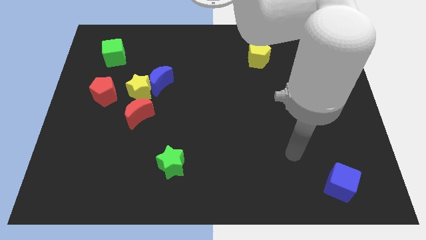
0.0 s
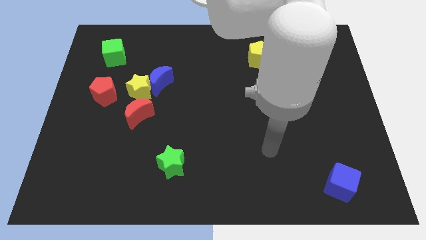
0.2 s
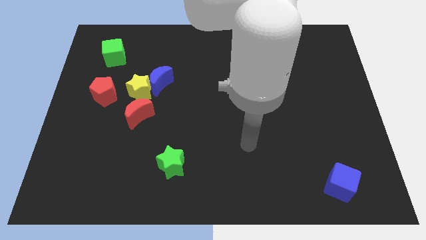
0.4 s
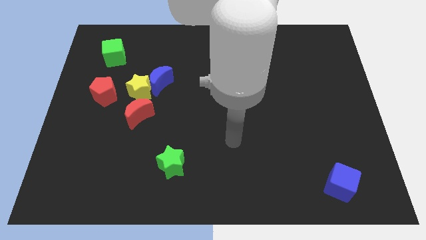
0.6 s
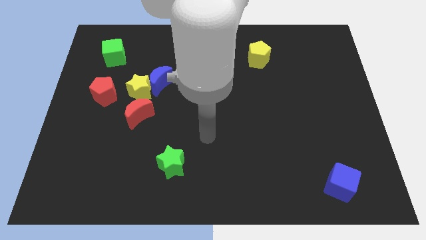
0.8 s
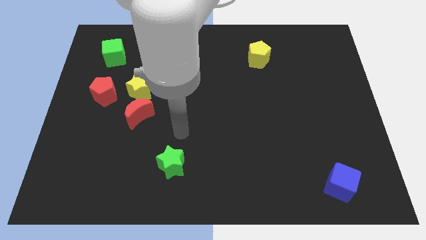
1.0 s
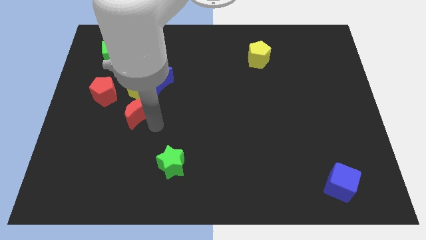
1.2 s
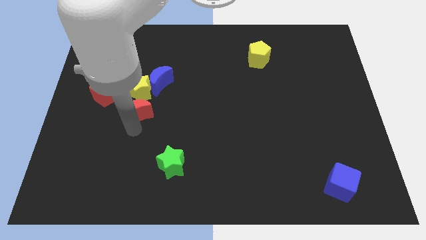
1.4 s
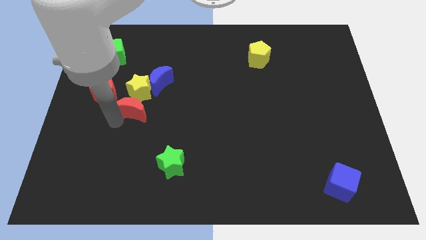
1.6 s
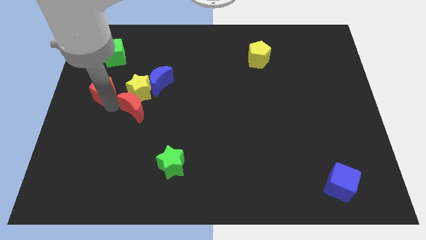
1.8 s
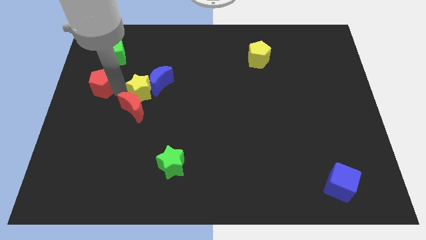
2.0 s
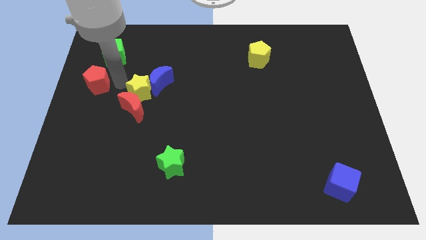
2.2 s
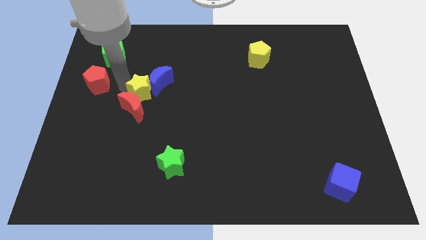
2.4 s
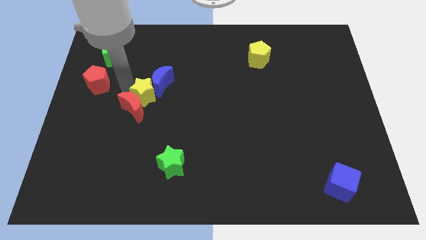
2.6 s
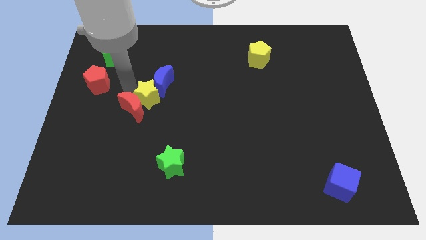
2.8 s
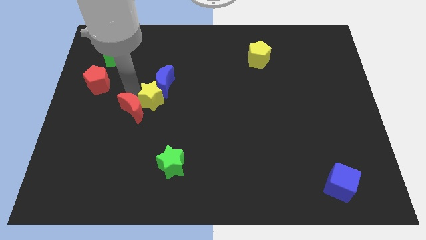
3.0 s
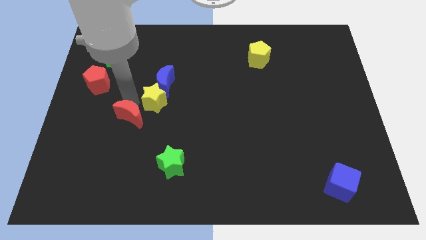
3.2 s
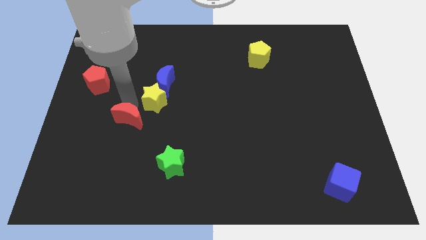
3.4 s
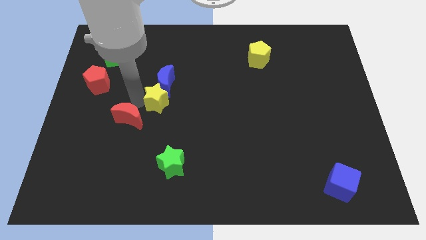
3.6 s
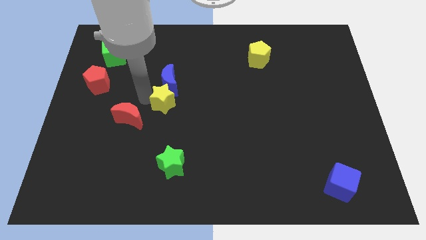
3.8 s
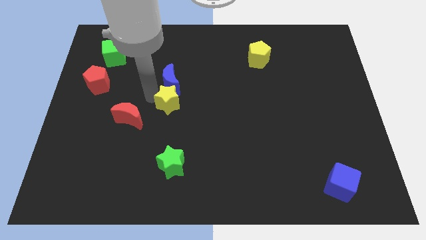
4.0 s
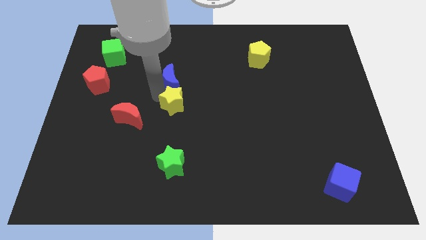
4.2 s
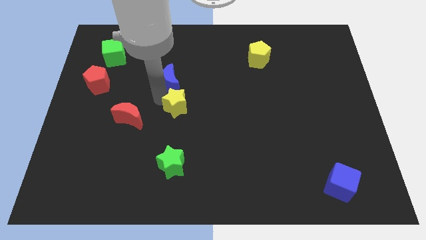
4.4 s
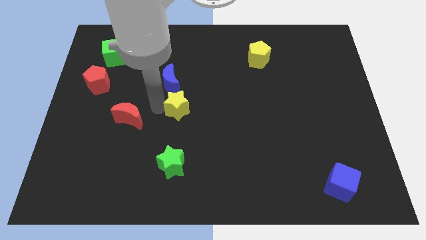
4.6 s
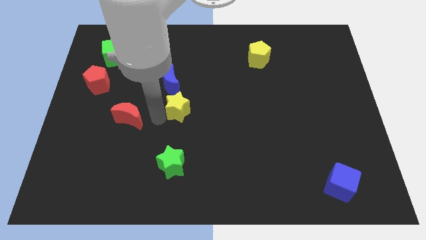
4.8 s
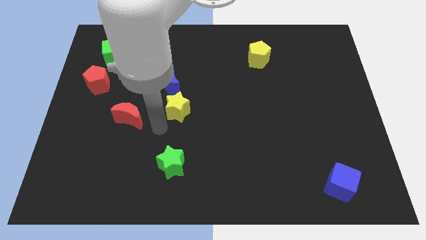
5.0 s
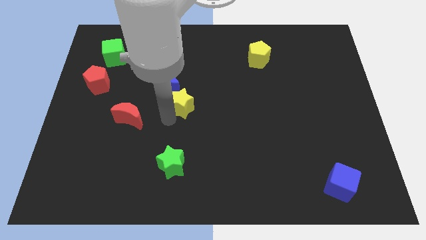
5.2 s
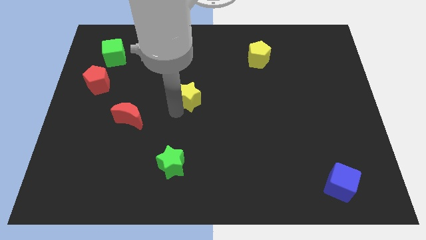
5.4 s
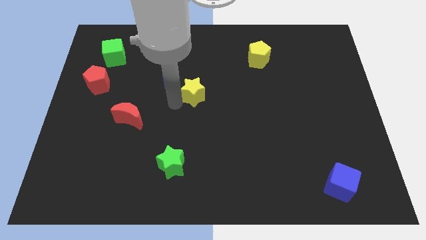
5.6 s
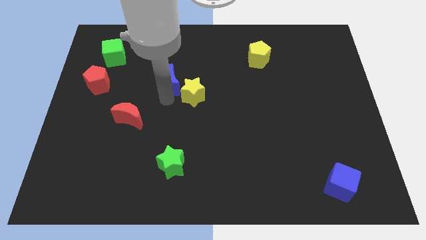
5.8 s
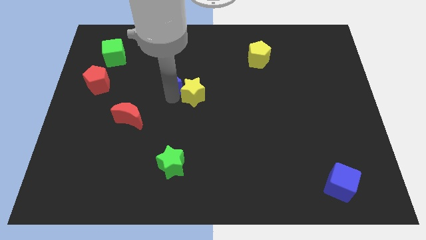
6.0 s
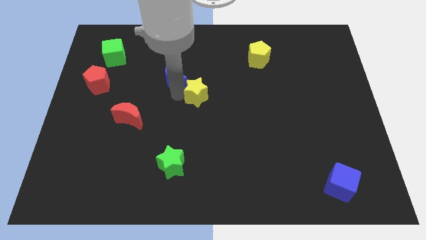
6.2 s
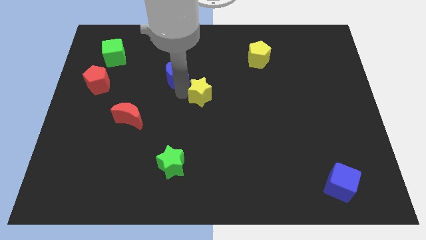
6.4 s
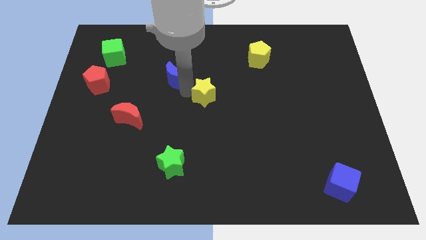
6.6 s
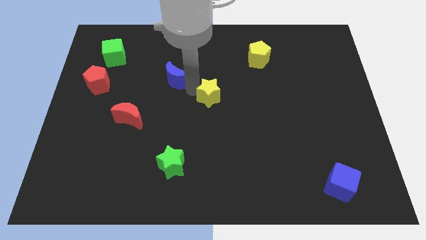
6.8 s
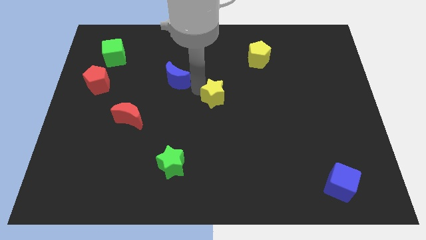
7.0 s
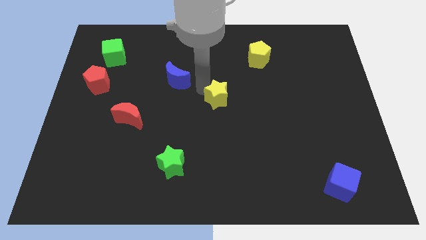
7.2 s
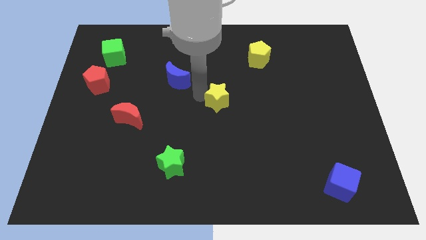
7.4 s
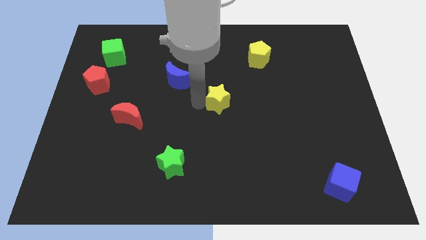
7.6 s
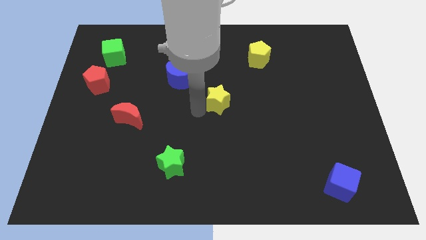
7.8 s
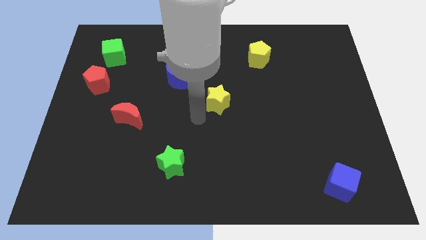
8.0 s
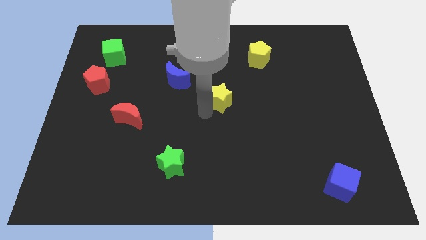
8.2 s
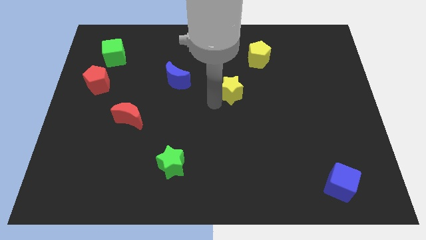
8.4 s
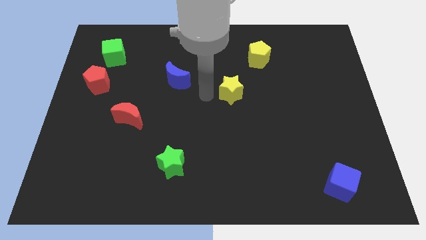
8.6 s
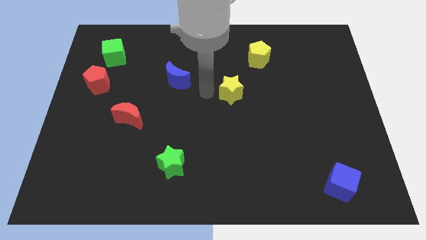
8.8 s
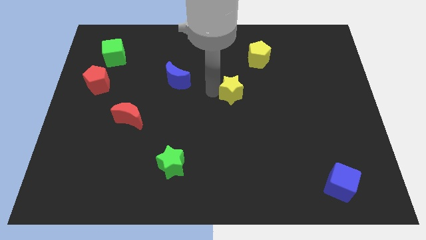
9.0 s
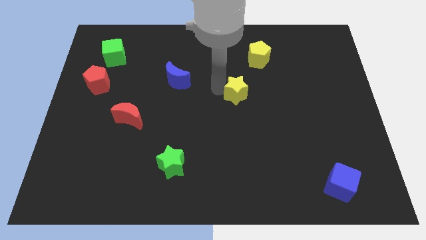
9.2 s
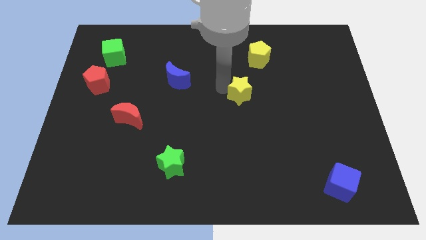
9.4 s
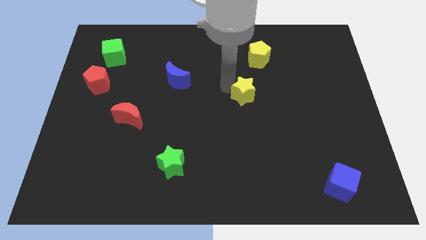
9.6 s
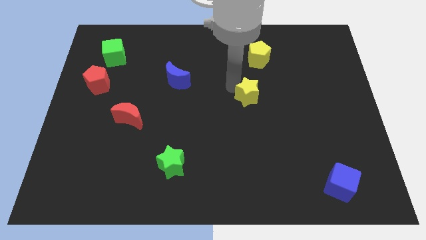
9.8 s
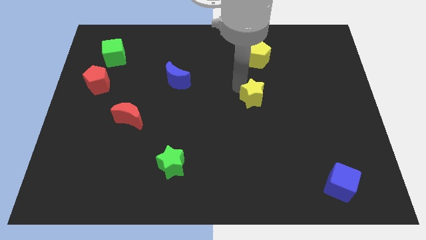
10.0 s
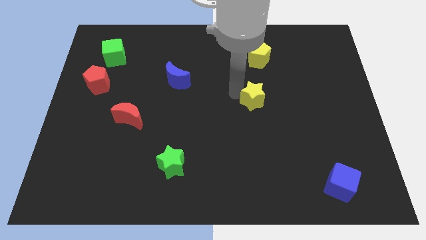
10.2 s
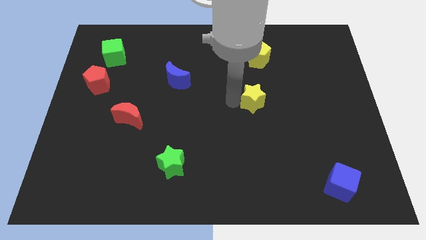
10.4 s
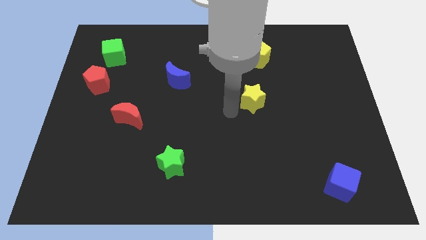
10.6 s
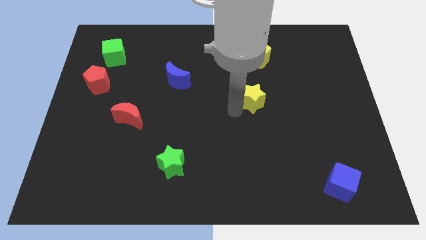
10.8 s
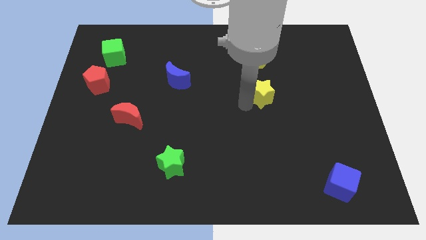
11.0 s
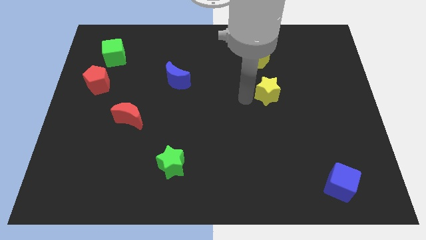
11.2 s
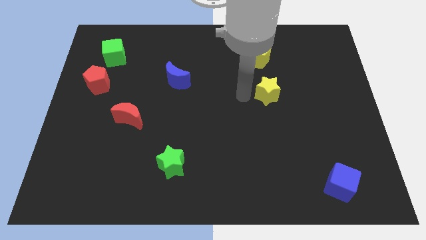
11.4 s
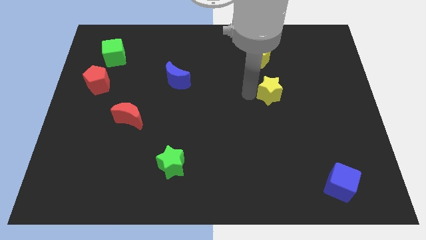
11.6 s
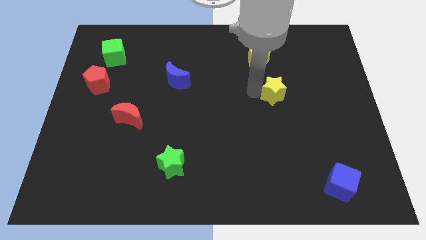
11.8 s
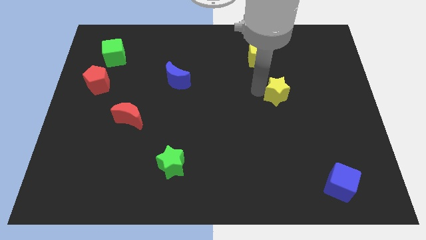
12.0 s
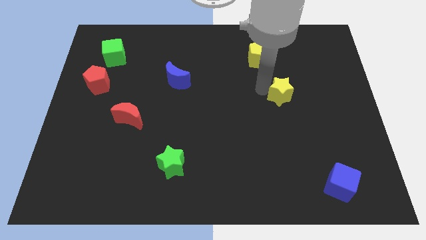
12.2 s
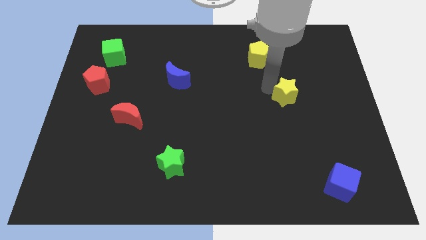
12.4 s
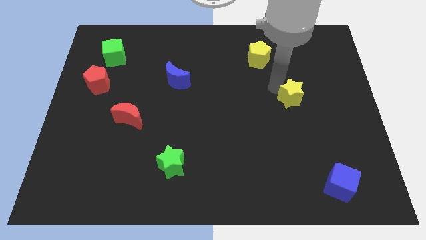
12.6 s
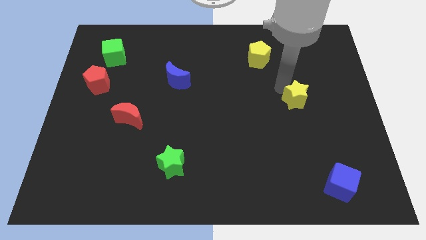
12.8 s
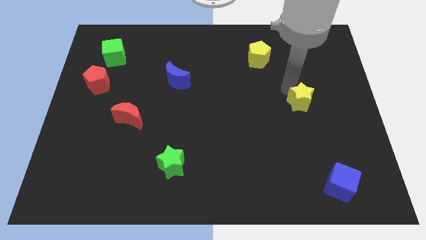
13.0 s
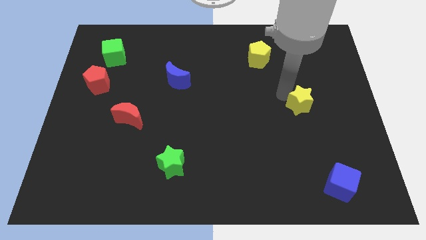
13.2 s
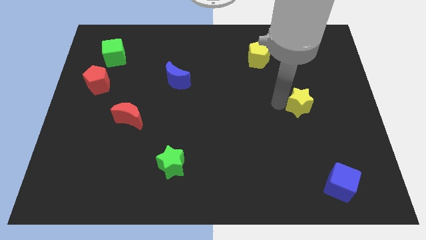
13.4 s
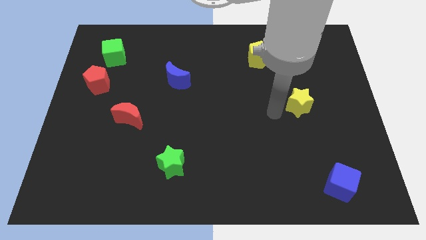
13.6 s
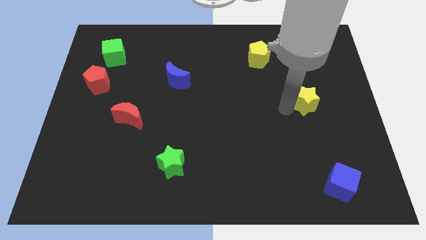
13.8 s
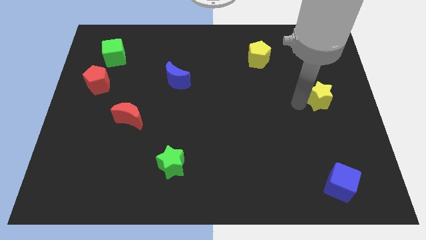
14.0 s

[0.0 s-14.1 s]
slide the yellow star to the center right
